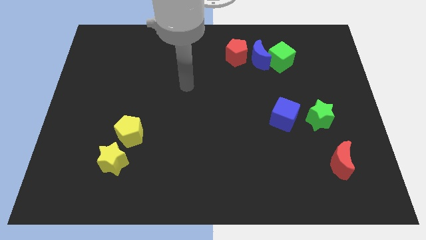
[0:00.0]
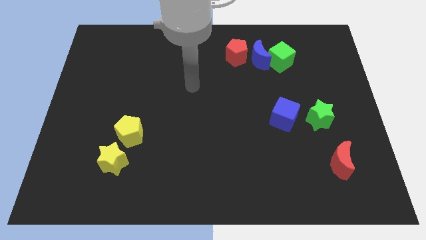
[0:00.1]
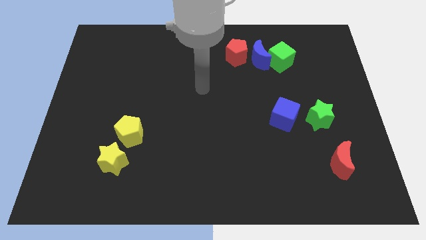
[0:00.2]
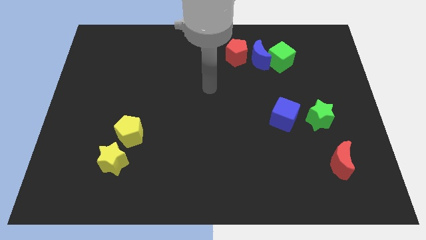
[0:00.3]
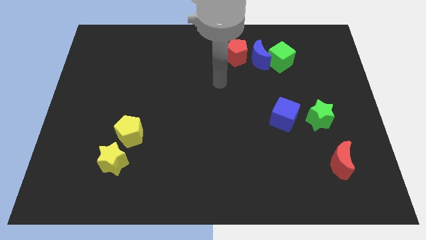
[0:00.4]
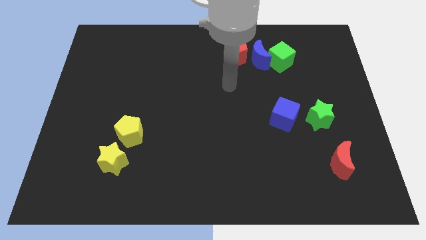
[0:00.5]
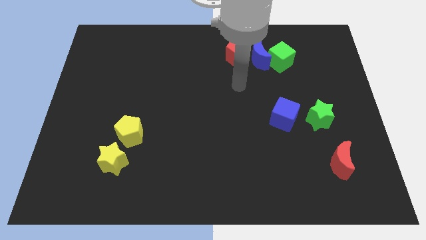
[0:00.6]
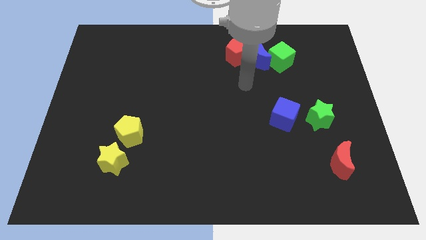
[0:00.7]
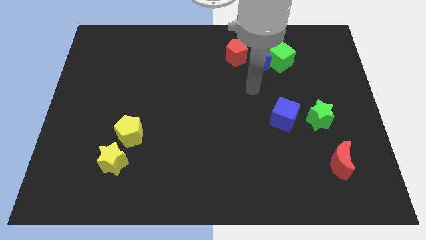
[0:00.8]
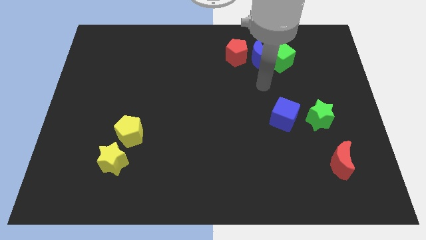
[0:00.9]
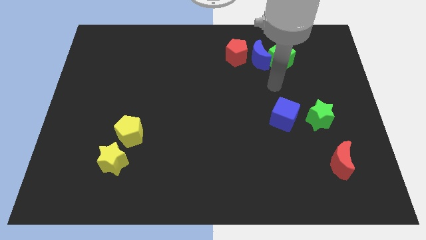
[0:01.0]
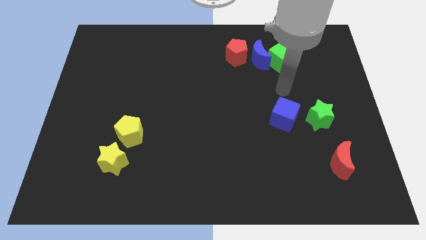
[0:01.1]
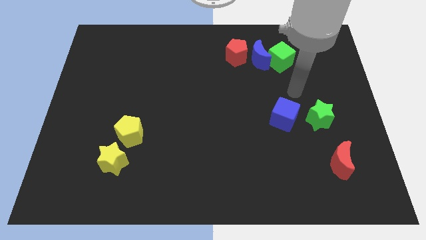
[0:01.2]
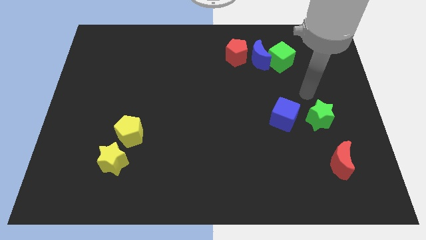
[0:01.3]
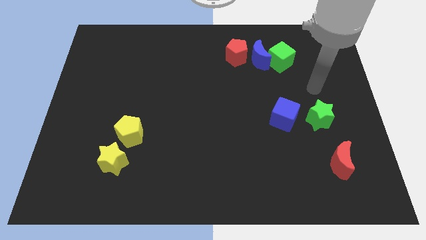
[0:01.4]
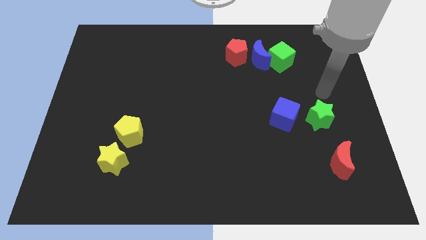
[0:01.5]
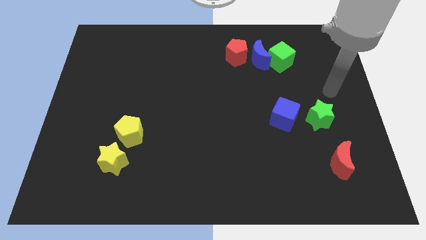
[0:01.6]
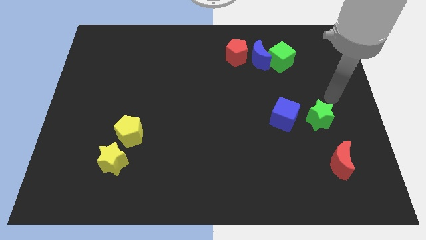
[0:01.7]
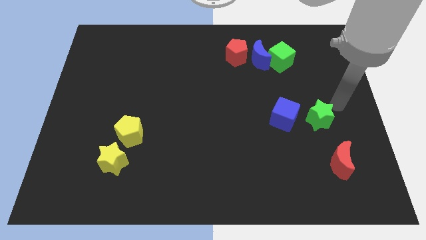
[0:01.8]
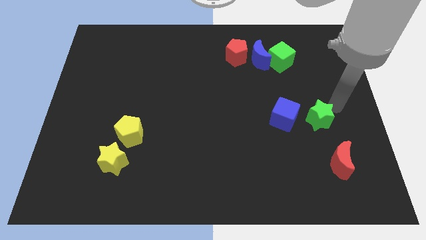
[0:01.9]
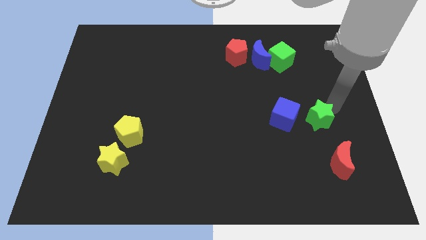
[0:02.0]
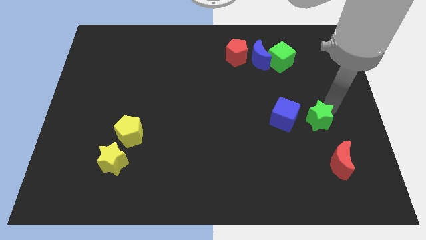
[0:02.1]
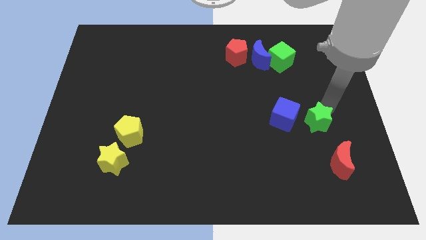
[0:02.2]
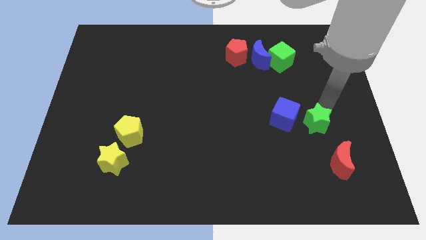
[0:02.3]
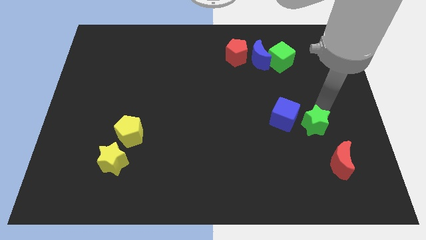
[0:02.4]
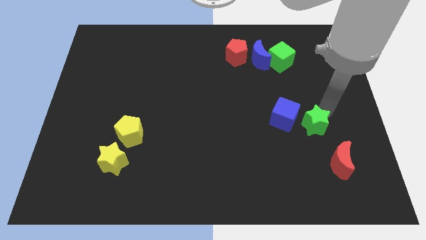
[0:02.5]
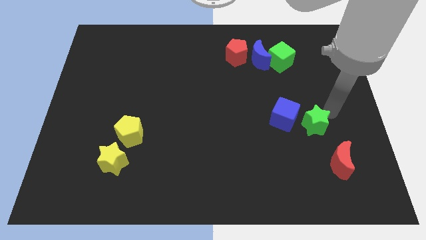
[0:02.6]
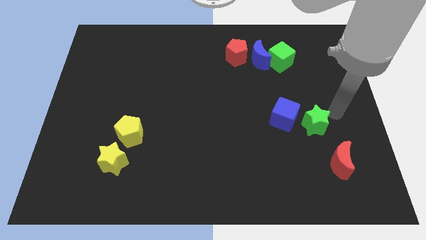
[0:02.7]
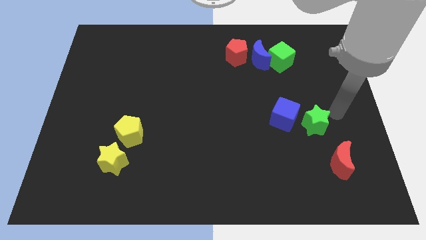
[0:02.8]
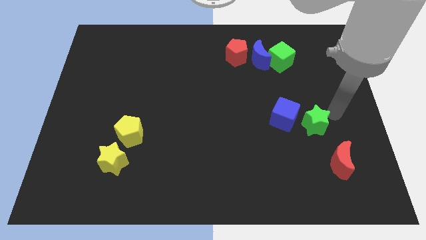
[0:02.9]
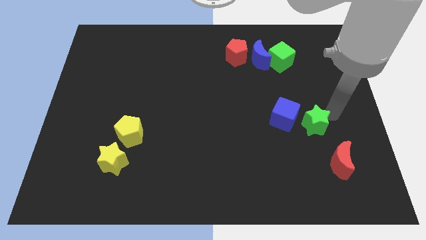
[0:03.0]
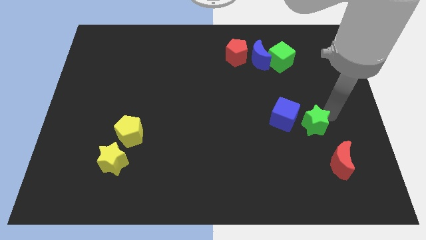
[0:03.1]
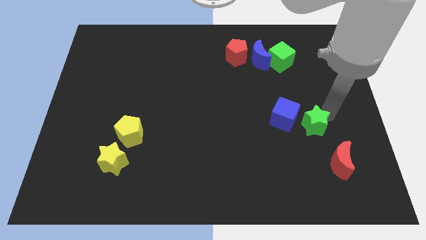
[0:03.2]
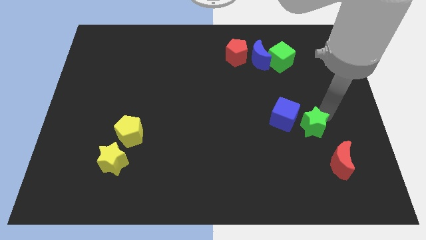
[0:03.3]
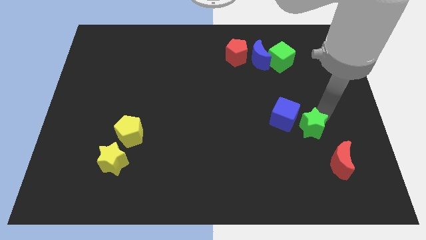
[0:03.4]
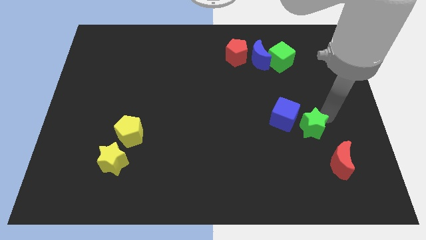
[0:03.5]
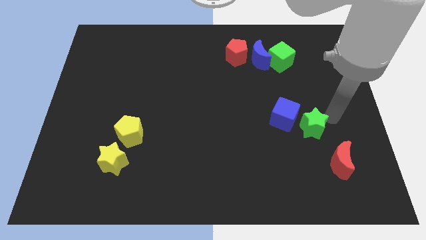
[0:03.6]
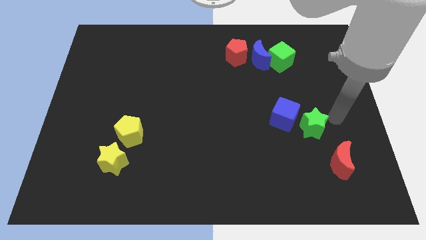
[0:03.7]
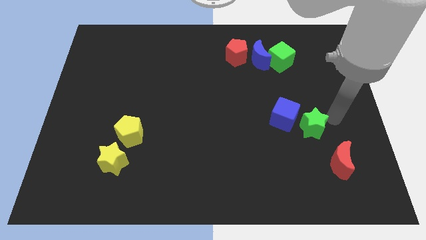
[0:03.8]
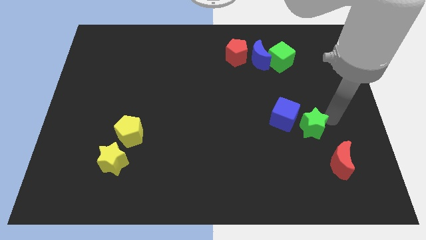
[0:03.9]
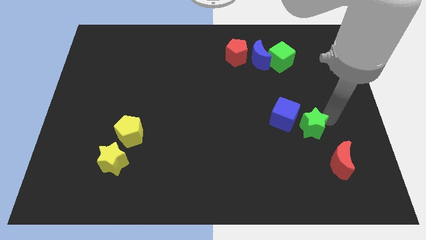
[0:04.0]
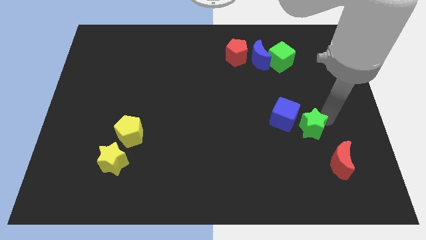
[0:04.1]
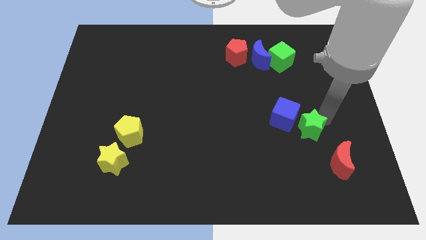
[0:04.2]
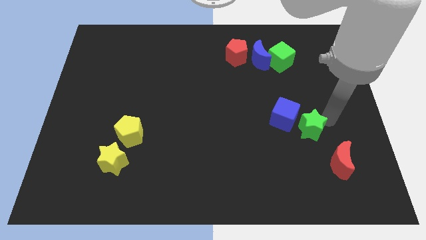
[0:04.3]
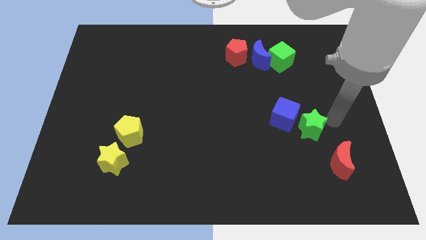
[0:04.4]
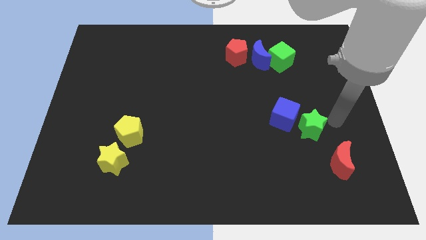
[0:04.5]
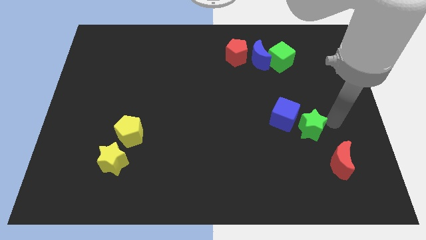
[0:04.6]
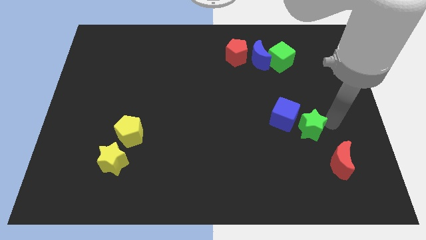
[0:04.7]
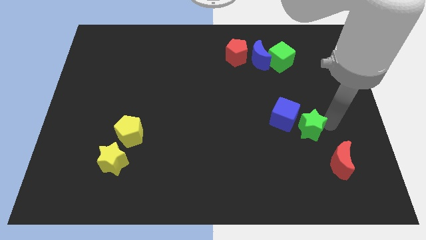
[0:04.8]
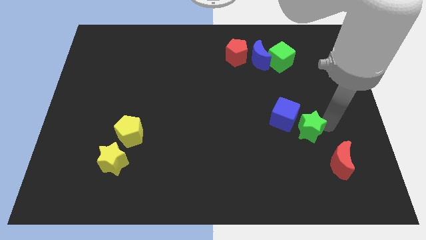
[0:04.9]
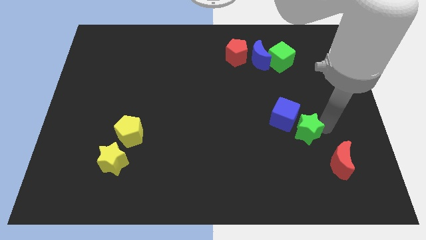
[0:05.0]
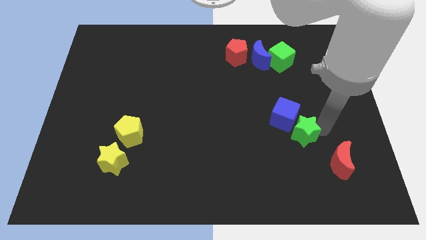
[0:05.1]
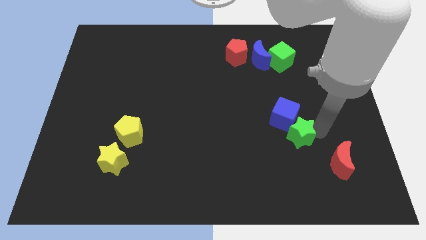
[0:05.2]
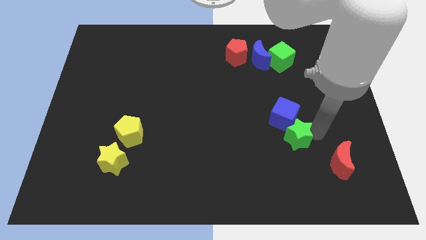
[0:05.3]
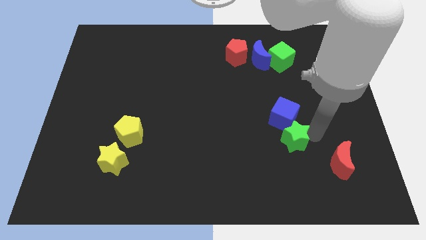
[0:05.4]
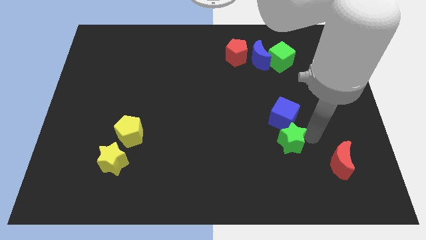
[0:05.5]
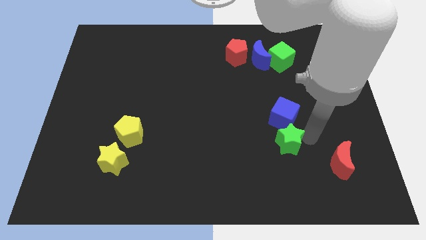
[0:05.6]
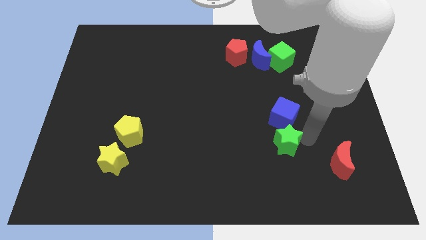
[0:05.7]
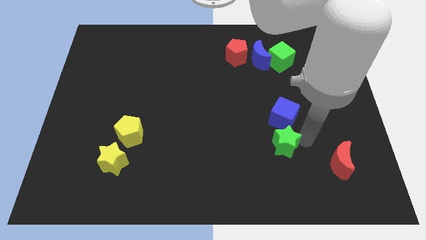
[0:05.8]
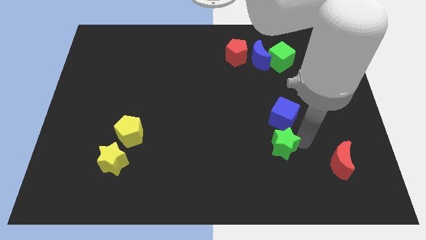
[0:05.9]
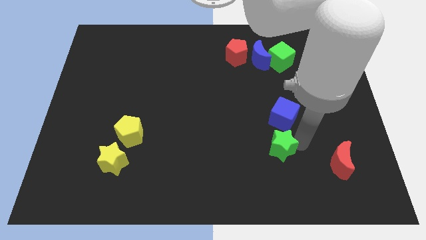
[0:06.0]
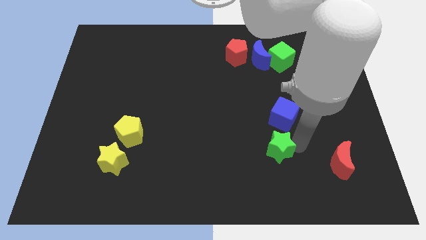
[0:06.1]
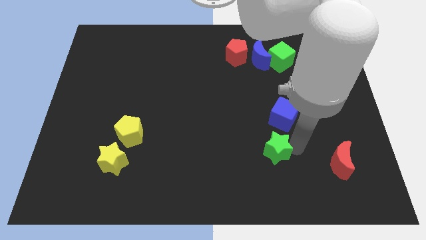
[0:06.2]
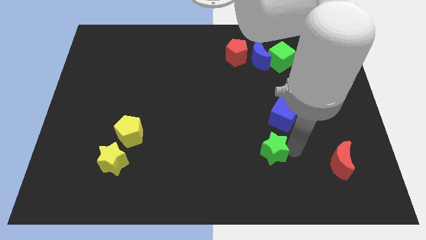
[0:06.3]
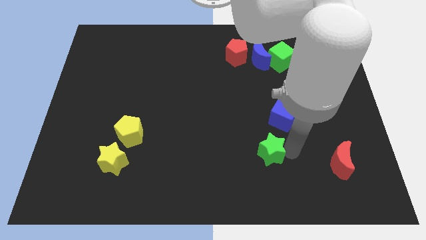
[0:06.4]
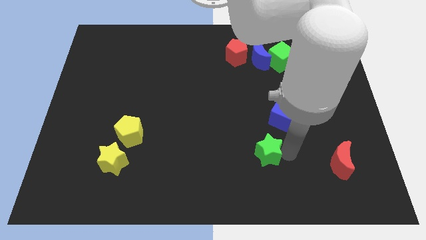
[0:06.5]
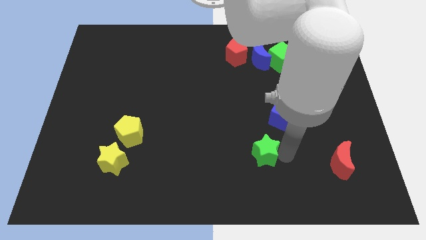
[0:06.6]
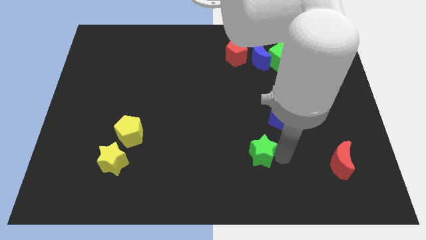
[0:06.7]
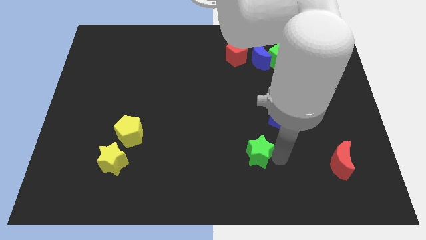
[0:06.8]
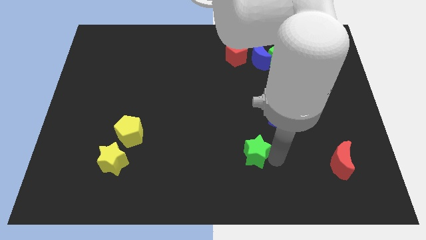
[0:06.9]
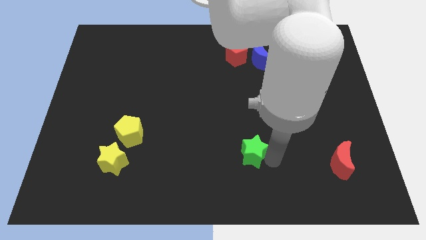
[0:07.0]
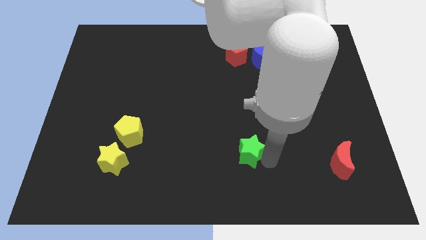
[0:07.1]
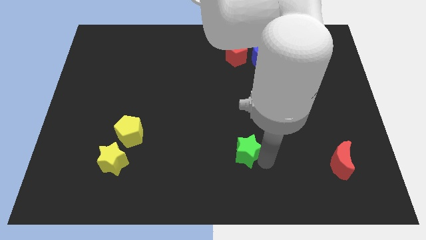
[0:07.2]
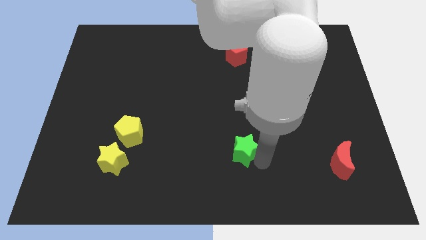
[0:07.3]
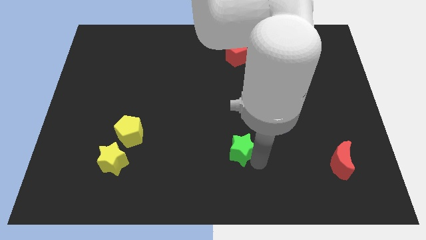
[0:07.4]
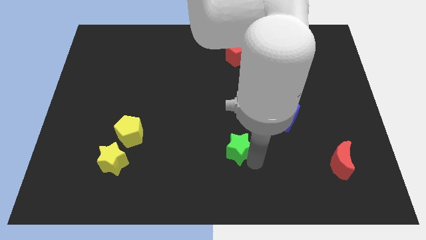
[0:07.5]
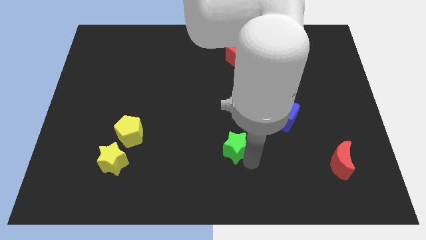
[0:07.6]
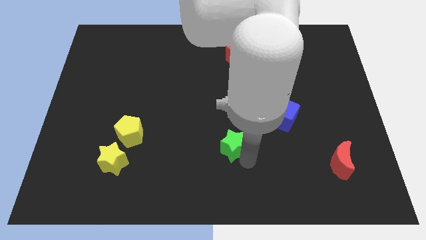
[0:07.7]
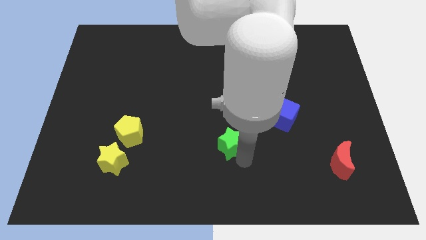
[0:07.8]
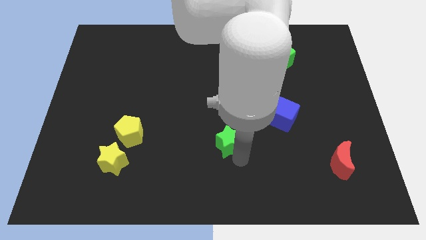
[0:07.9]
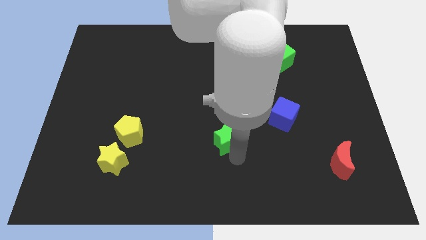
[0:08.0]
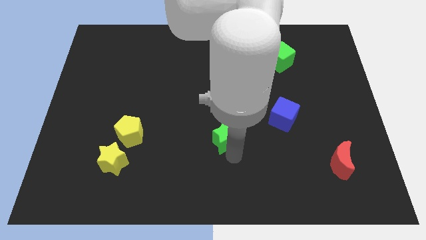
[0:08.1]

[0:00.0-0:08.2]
move the green star left

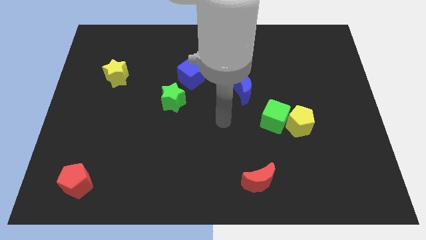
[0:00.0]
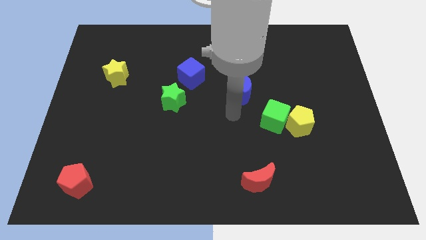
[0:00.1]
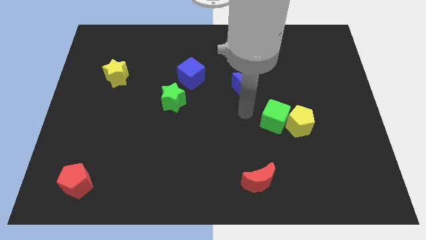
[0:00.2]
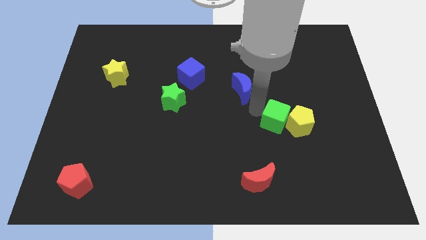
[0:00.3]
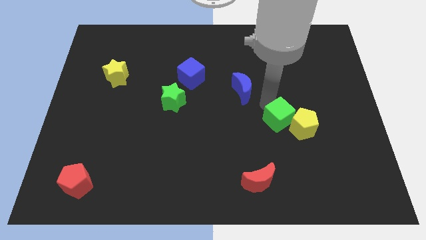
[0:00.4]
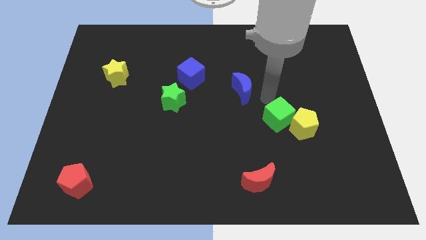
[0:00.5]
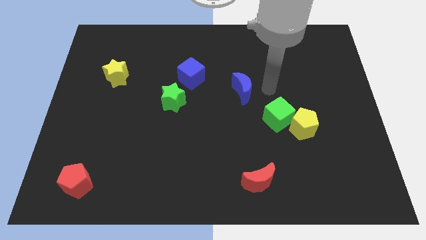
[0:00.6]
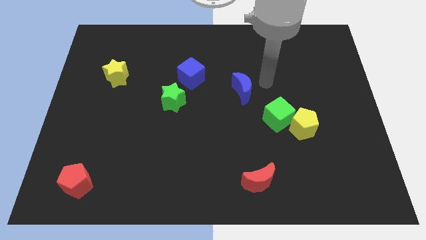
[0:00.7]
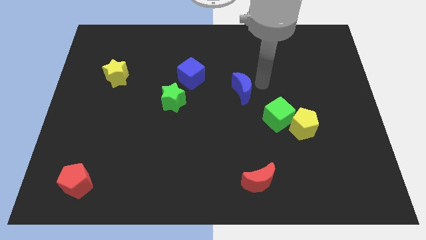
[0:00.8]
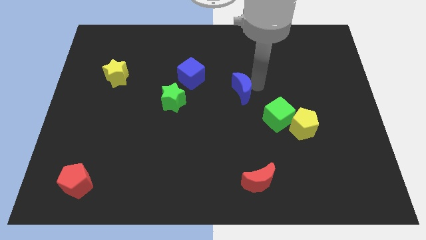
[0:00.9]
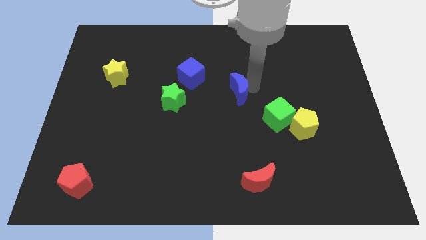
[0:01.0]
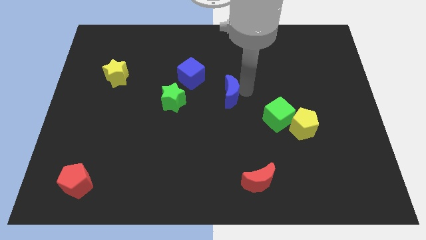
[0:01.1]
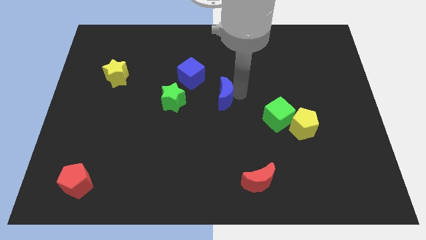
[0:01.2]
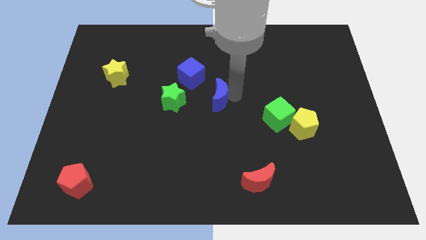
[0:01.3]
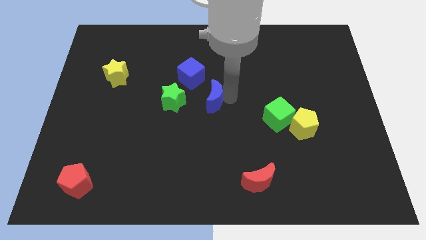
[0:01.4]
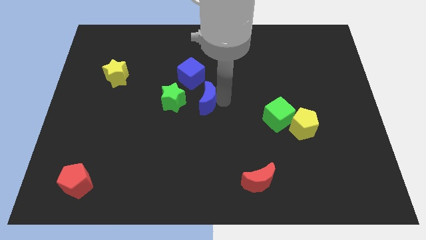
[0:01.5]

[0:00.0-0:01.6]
push the blue moon slightly left
